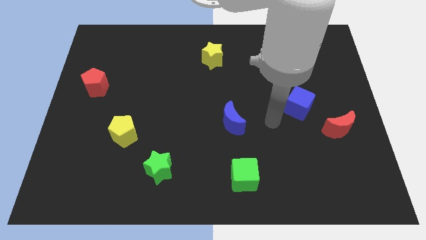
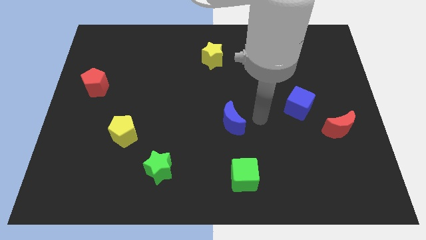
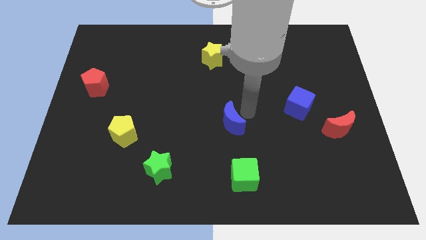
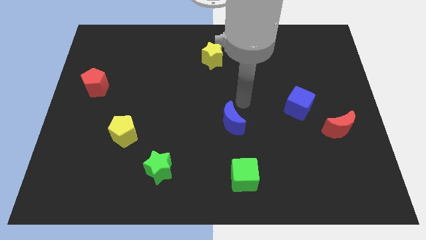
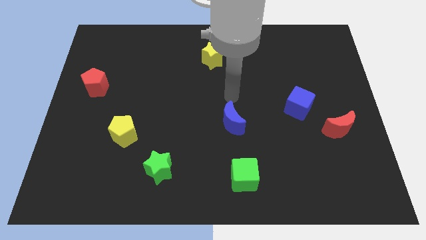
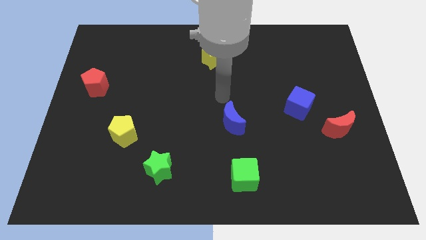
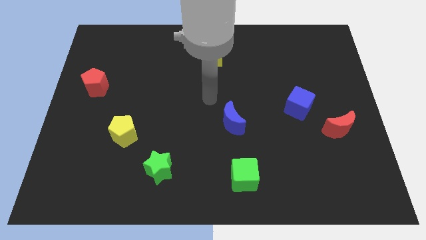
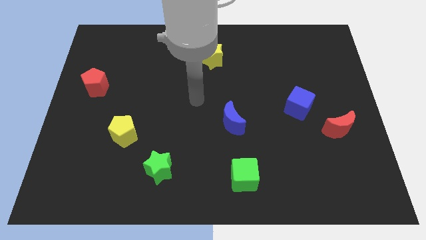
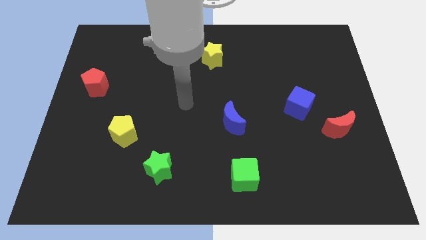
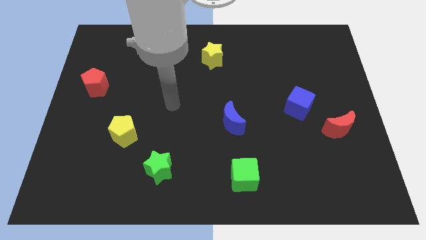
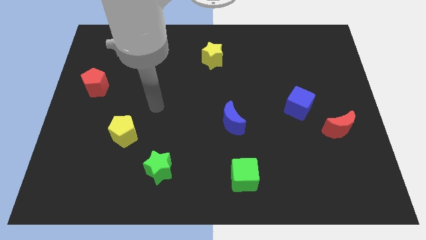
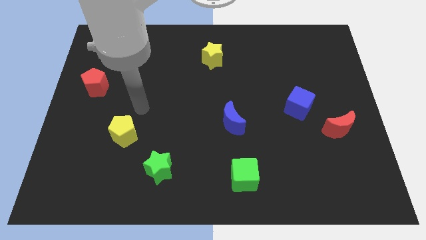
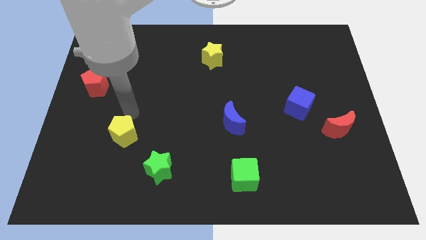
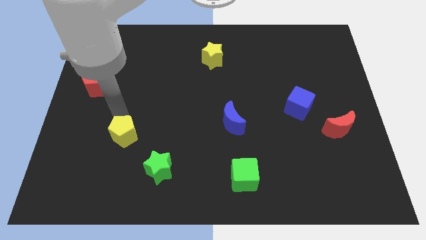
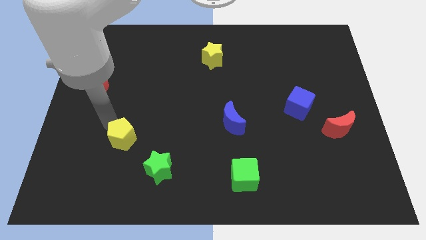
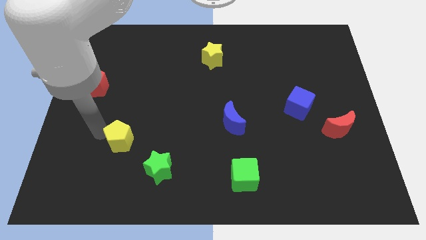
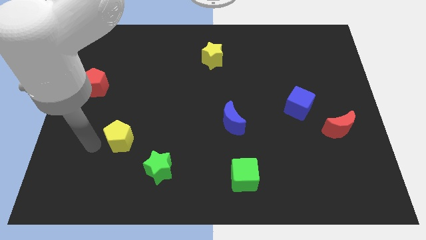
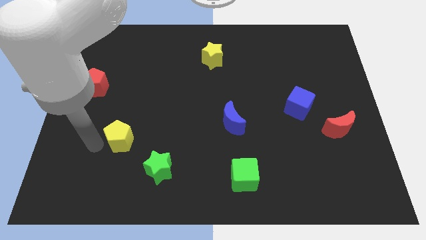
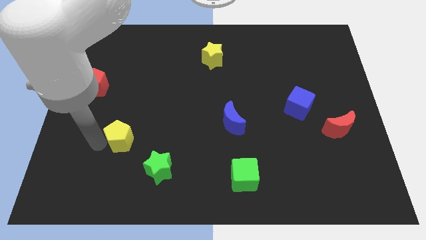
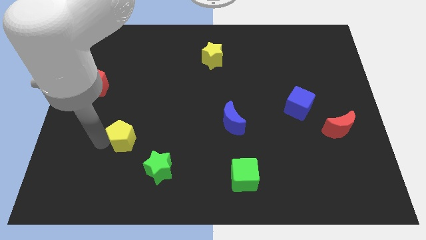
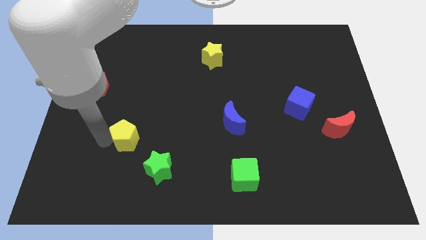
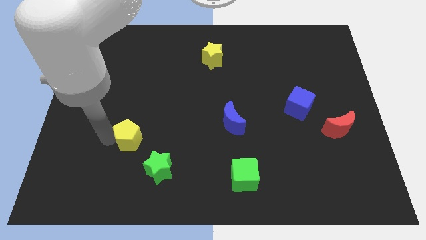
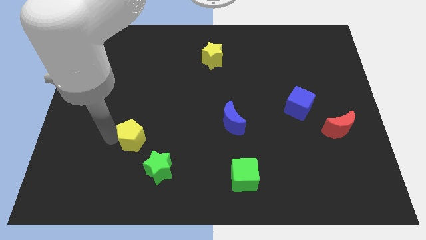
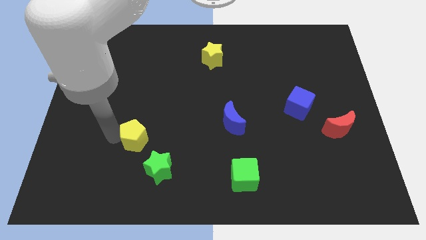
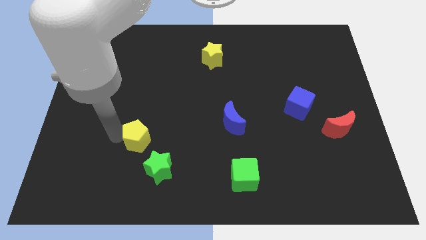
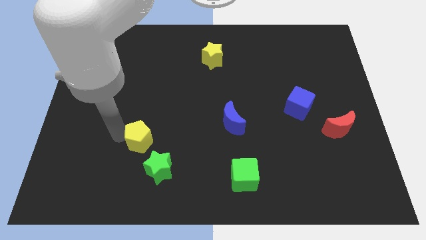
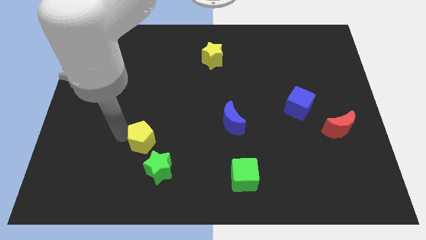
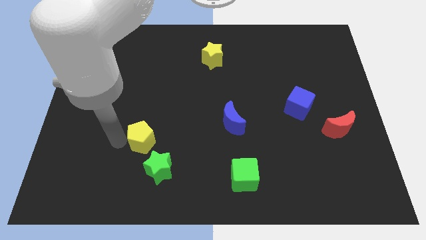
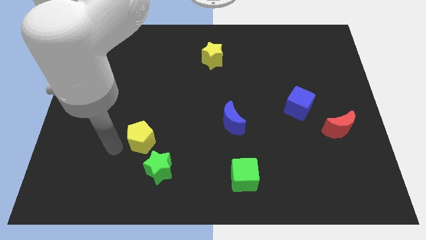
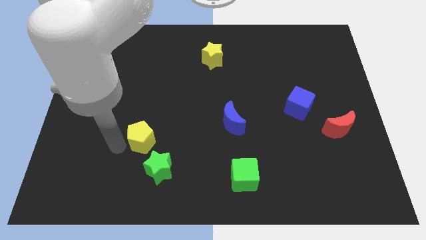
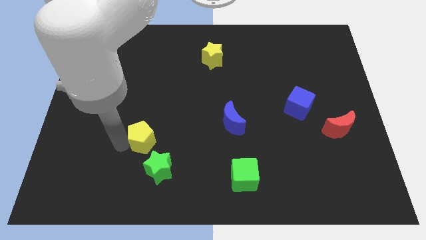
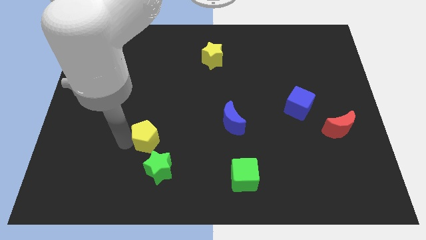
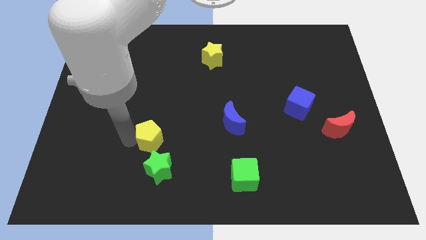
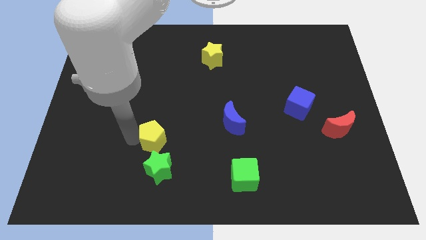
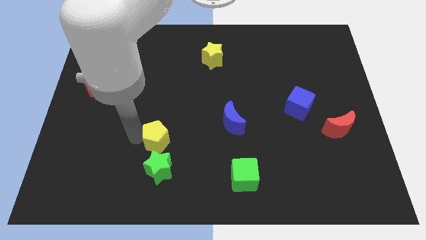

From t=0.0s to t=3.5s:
slightly push the yellow pentagon right

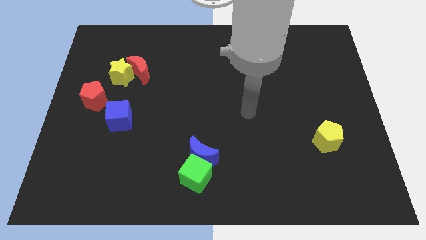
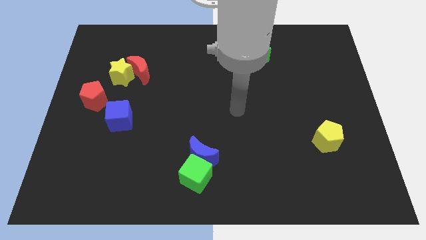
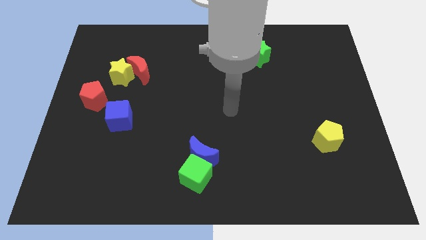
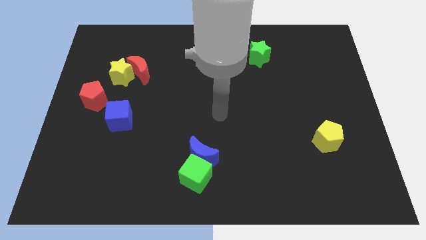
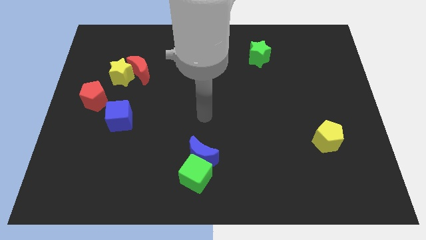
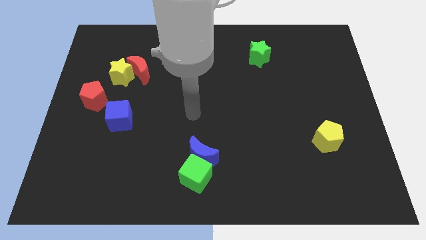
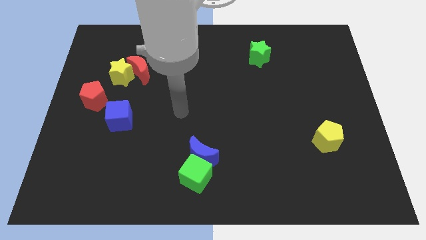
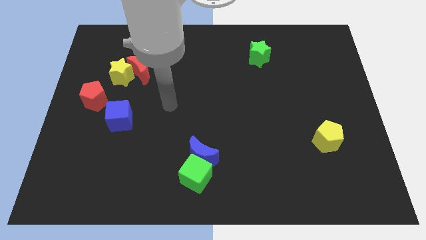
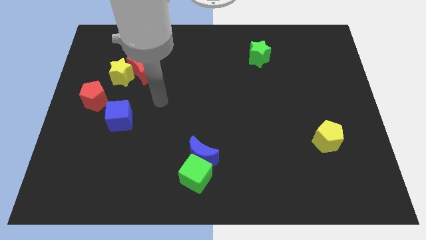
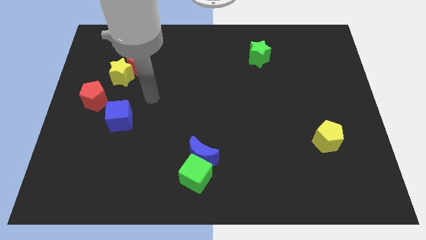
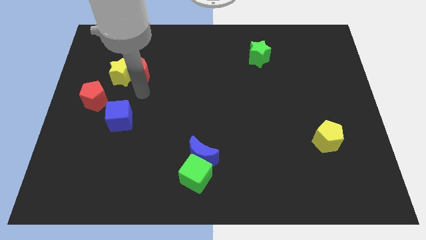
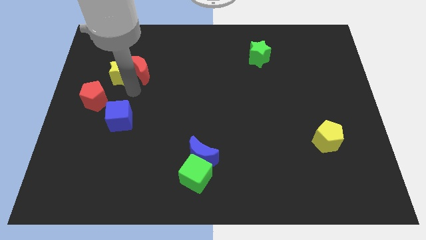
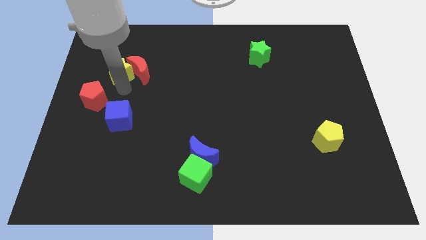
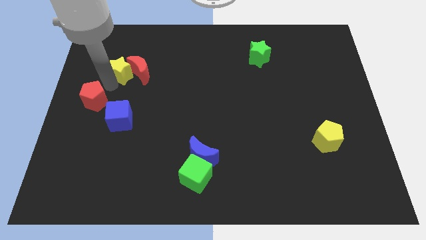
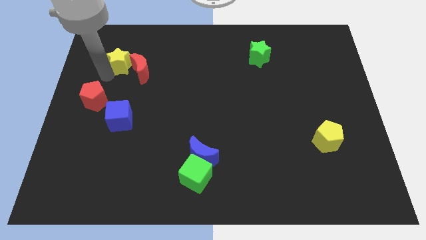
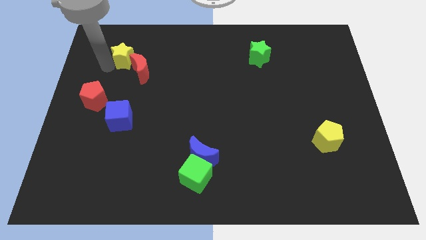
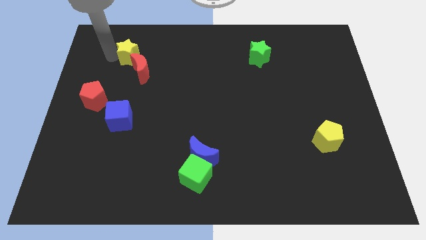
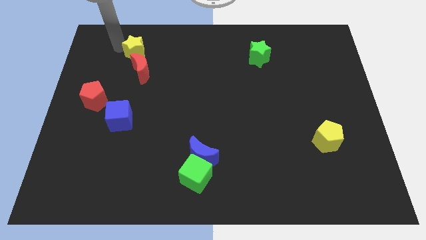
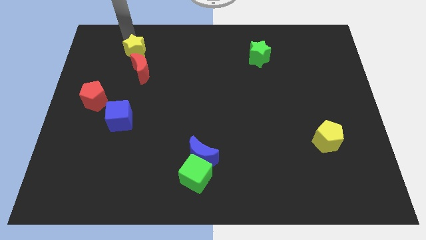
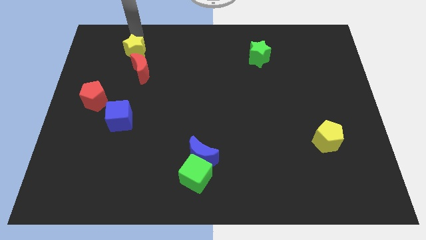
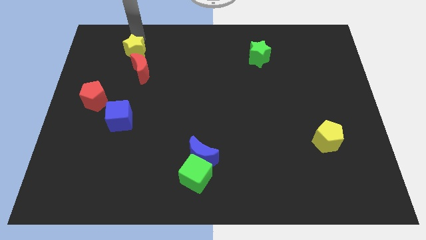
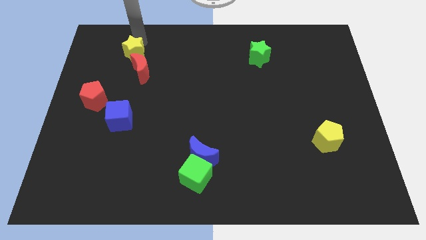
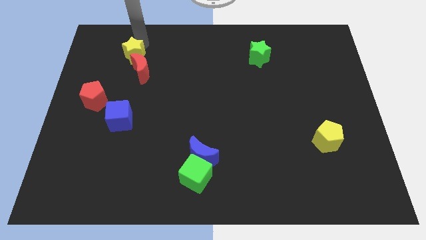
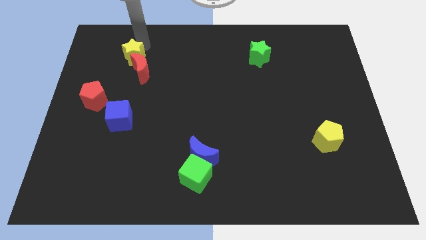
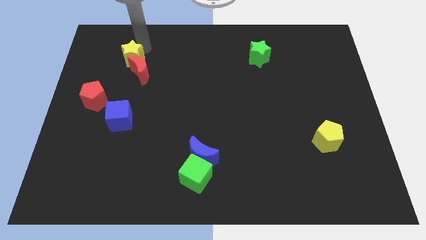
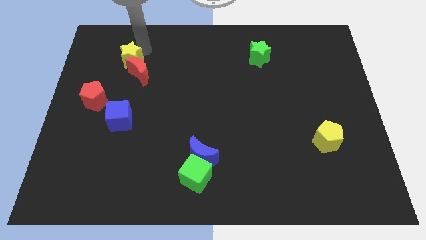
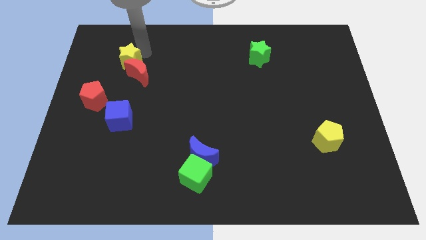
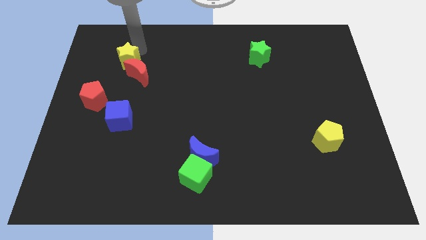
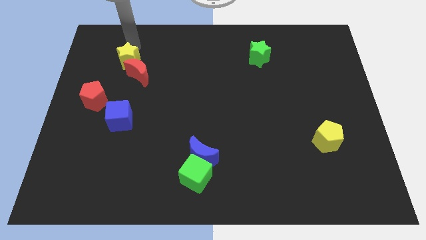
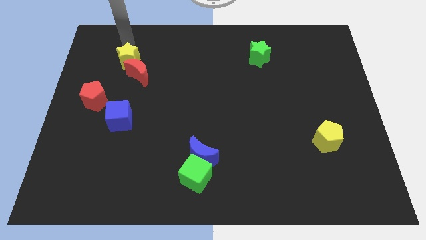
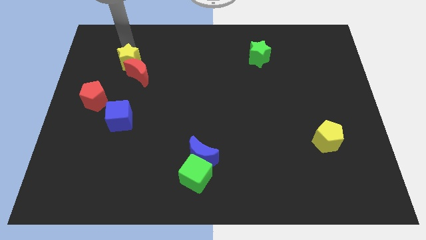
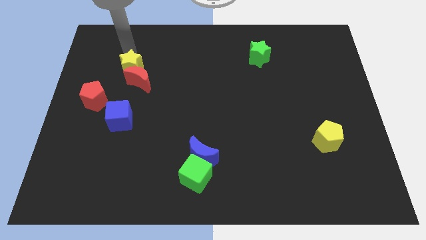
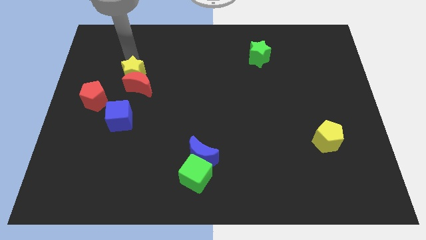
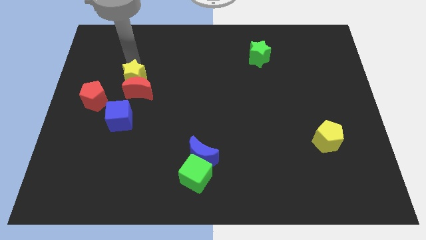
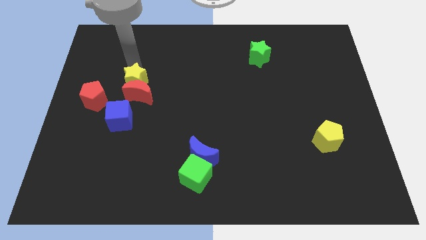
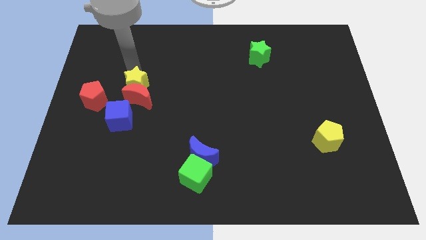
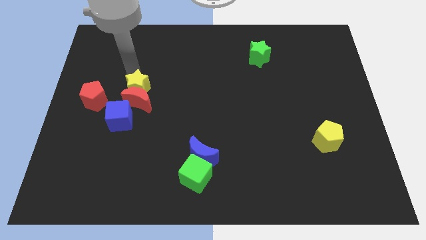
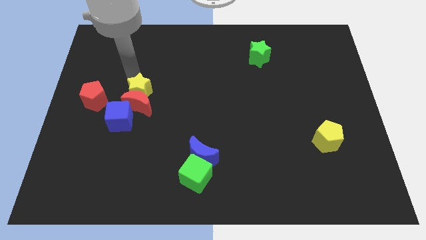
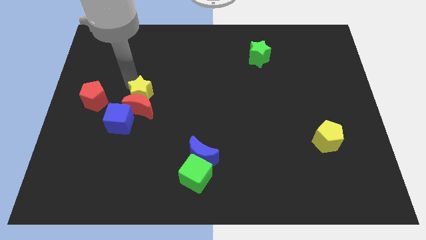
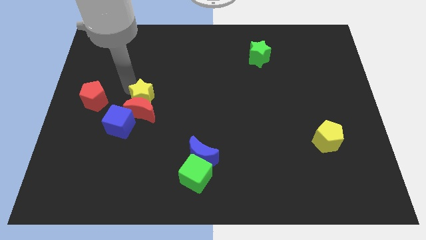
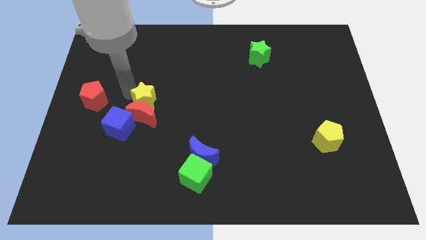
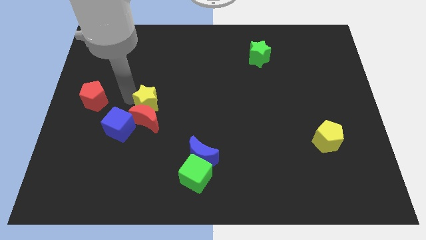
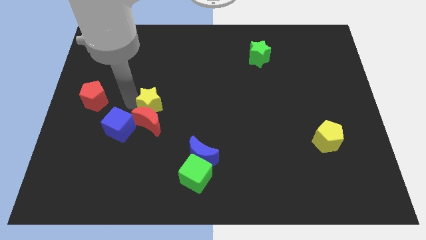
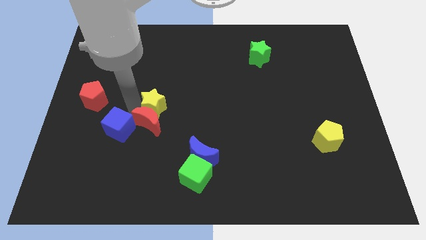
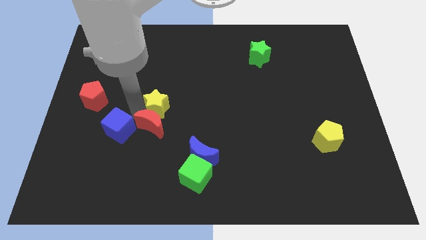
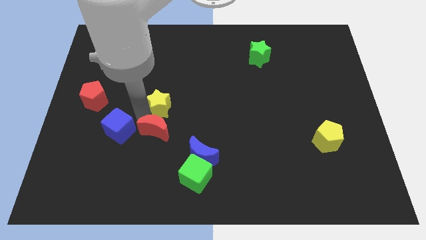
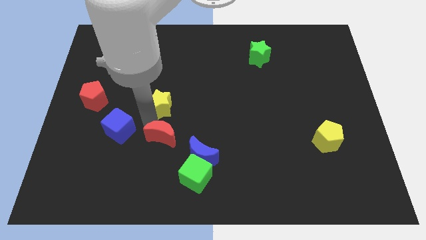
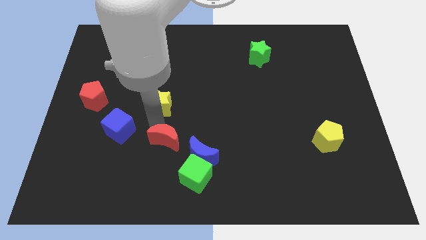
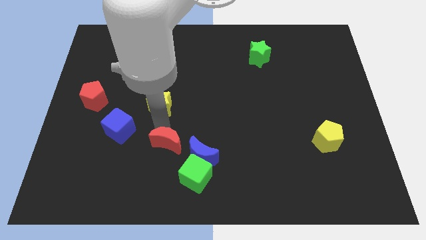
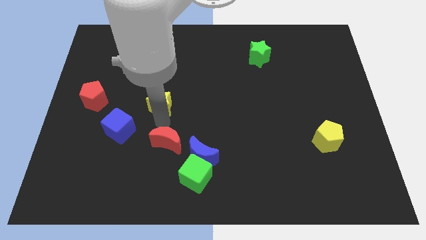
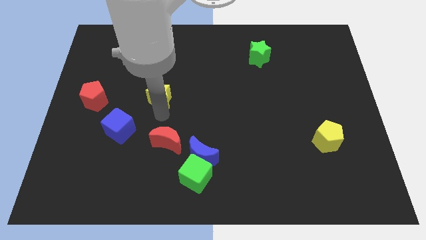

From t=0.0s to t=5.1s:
slide the yellow star somewhat right
